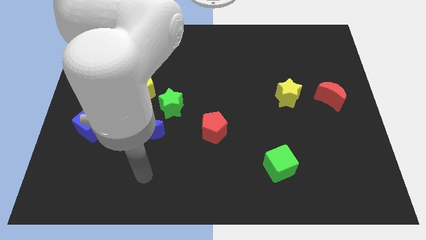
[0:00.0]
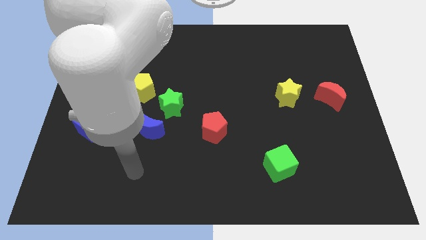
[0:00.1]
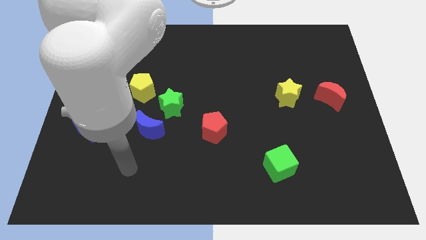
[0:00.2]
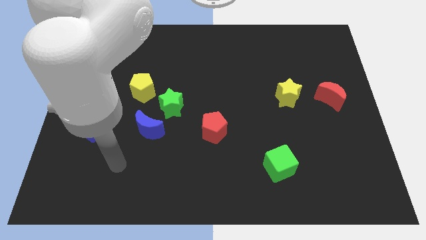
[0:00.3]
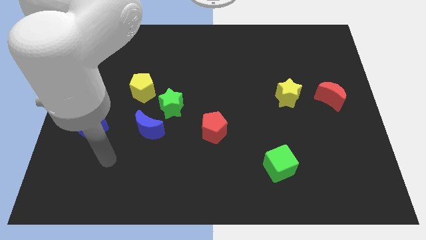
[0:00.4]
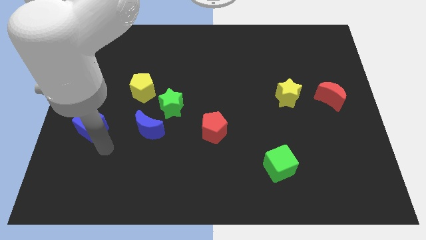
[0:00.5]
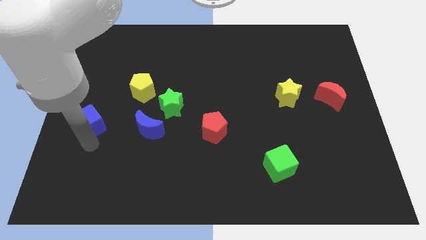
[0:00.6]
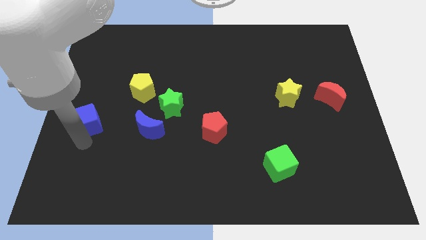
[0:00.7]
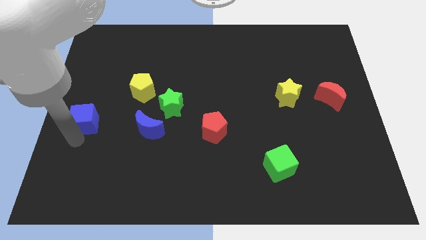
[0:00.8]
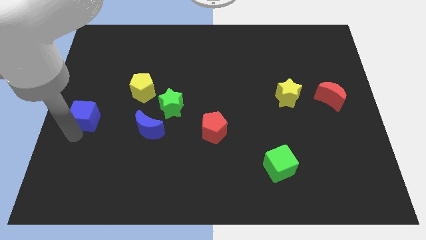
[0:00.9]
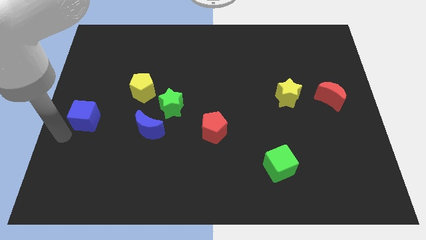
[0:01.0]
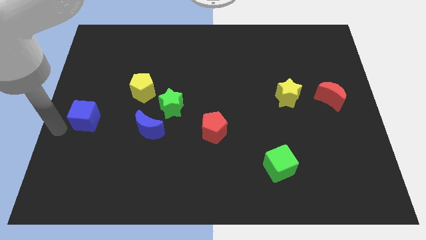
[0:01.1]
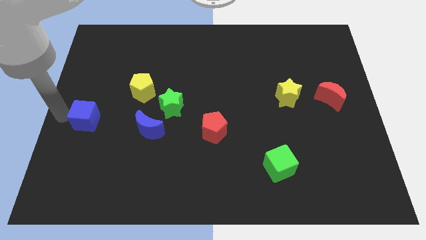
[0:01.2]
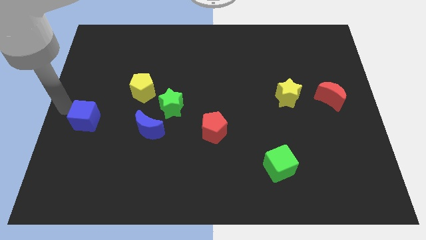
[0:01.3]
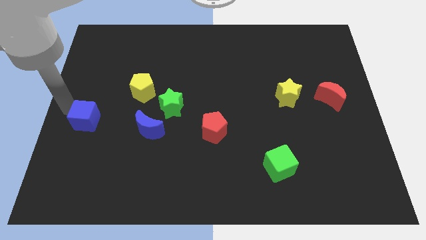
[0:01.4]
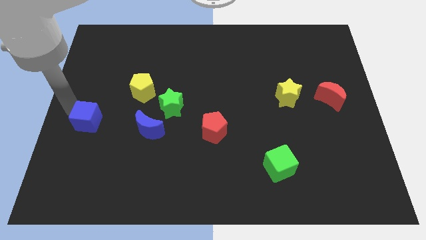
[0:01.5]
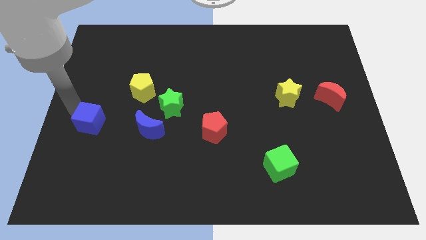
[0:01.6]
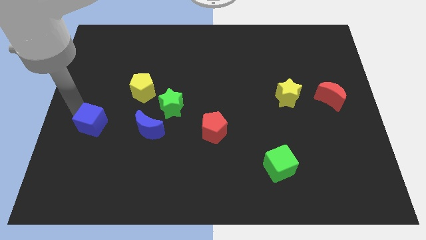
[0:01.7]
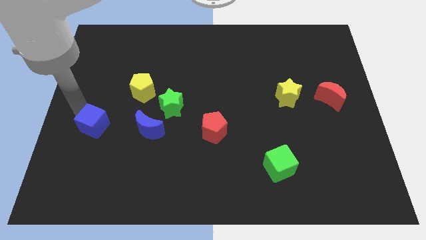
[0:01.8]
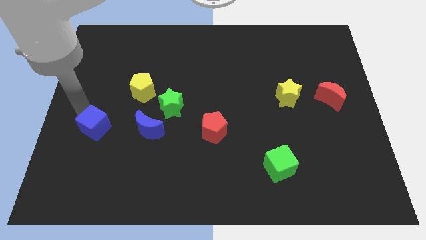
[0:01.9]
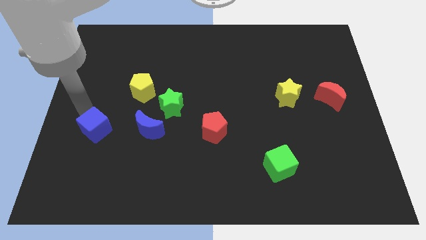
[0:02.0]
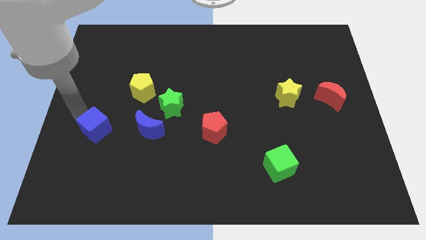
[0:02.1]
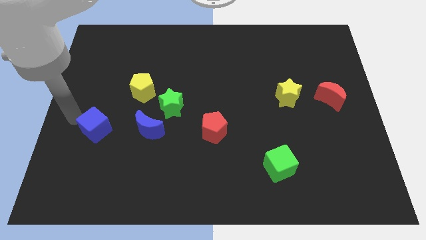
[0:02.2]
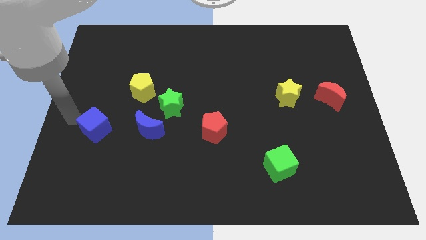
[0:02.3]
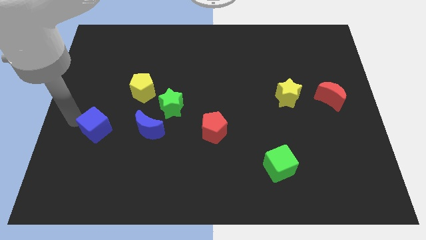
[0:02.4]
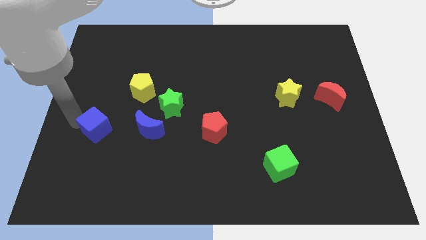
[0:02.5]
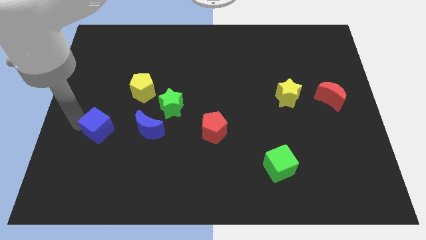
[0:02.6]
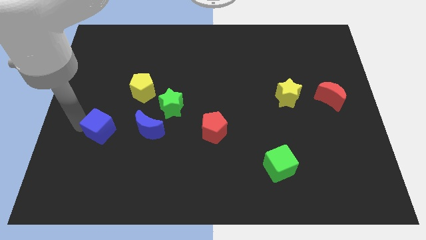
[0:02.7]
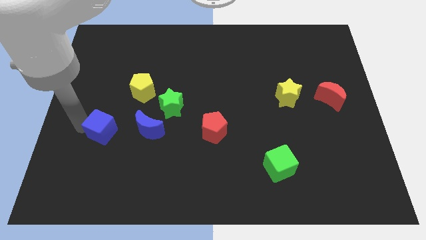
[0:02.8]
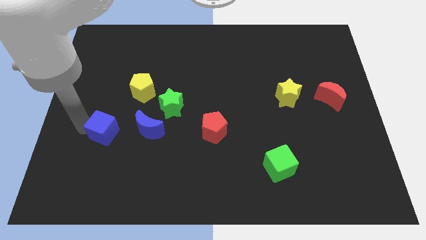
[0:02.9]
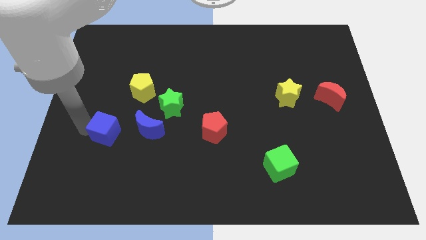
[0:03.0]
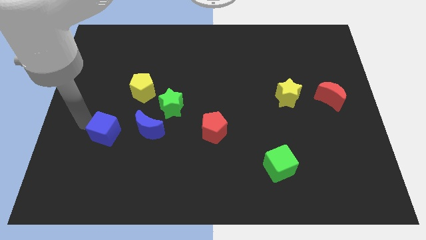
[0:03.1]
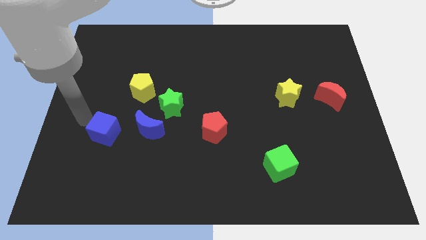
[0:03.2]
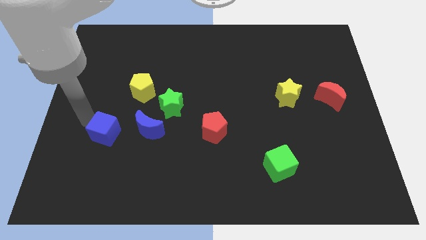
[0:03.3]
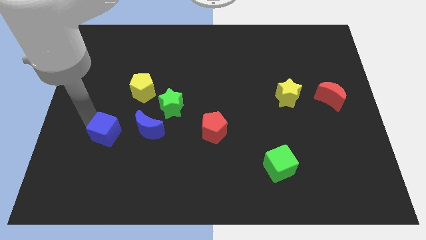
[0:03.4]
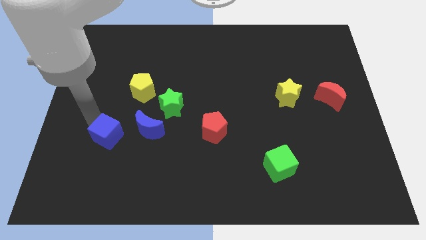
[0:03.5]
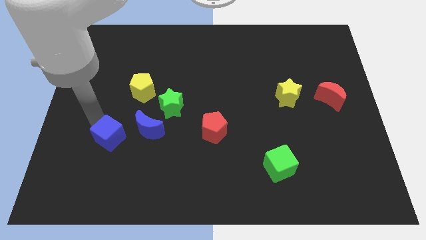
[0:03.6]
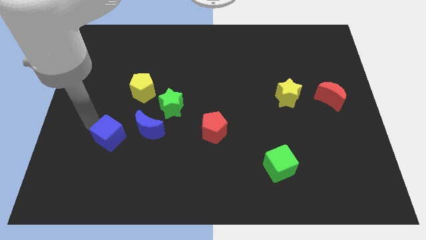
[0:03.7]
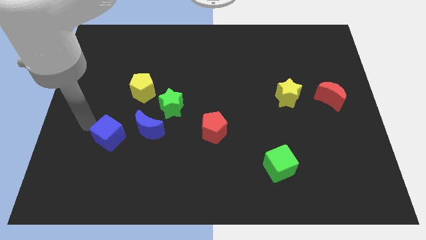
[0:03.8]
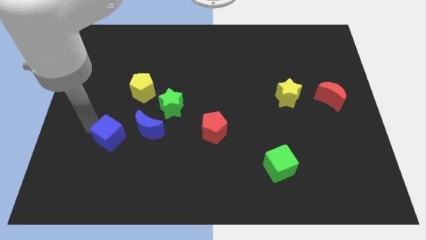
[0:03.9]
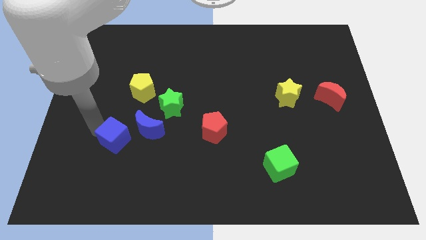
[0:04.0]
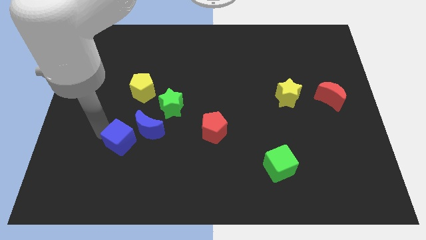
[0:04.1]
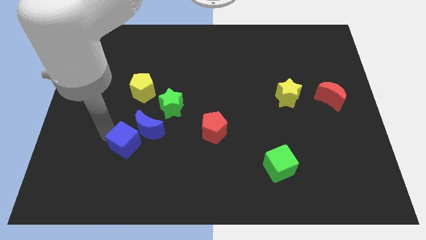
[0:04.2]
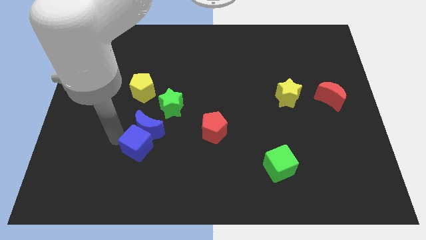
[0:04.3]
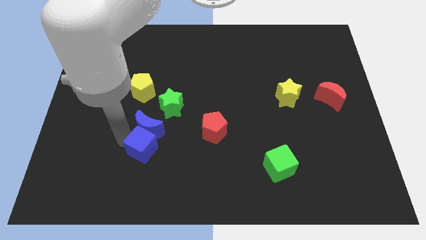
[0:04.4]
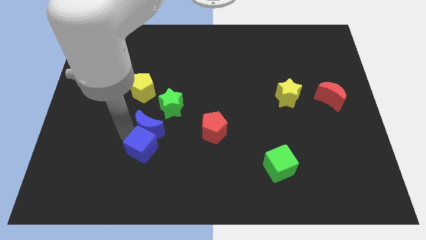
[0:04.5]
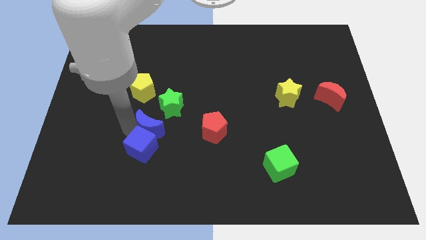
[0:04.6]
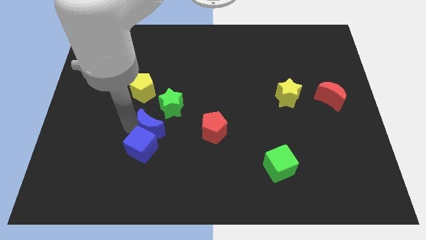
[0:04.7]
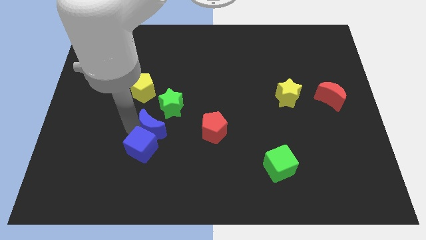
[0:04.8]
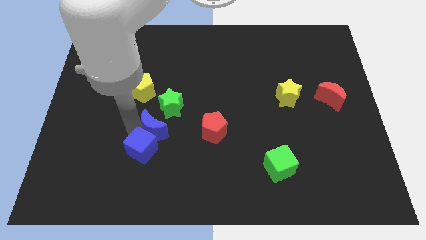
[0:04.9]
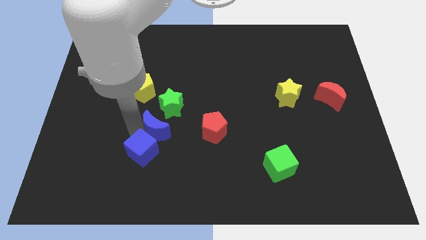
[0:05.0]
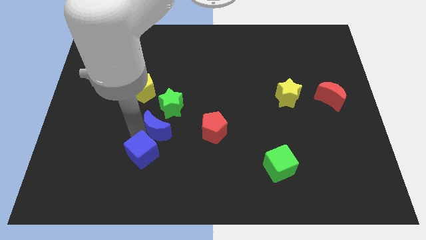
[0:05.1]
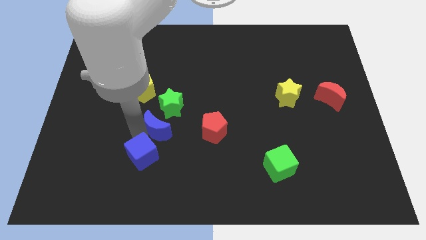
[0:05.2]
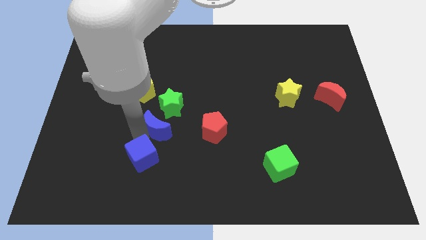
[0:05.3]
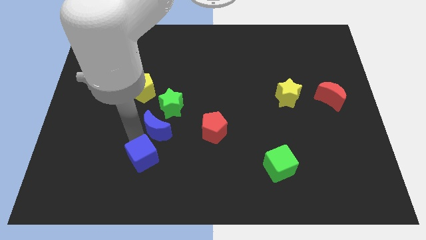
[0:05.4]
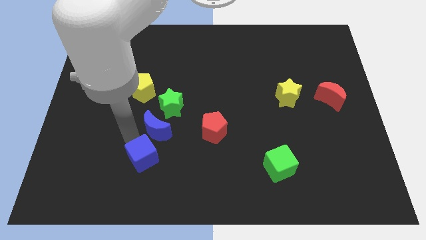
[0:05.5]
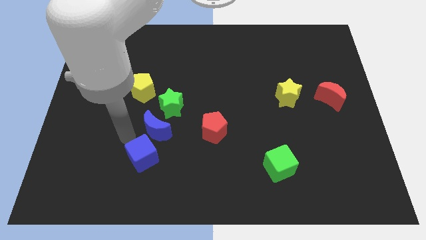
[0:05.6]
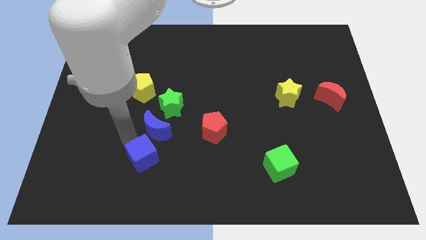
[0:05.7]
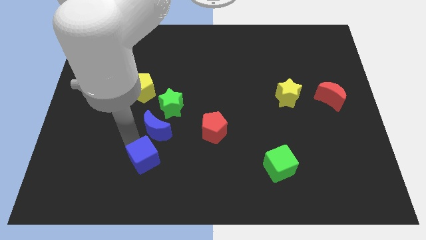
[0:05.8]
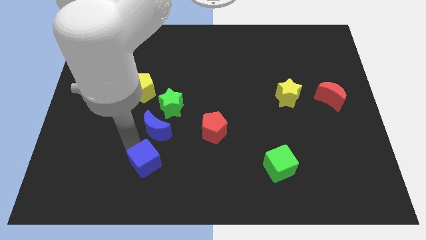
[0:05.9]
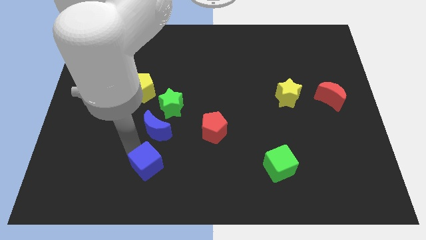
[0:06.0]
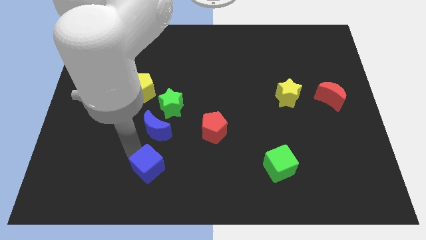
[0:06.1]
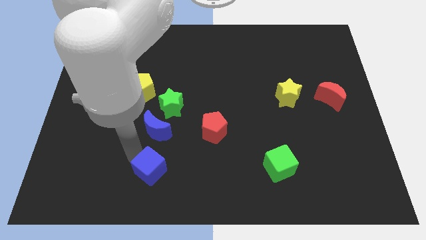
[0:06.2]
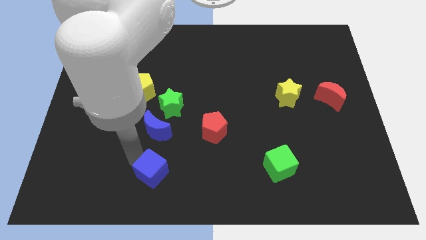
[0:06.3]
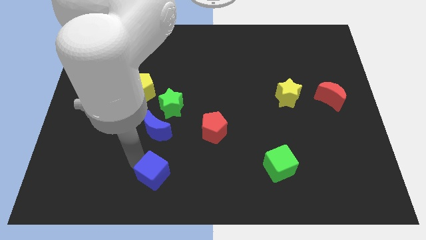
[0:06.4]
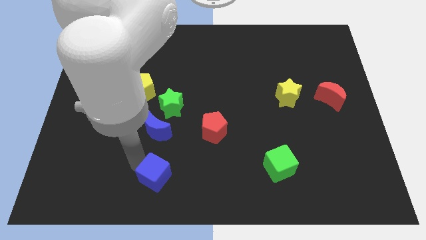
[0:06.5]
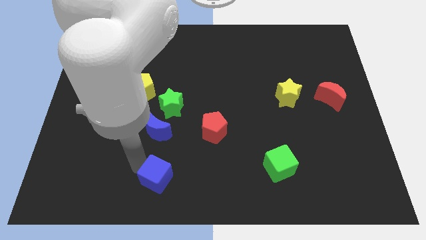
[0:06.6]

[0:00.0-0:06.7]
slide the blue cube to the bottom
